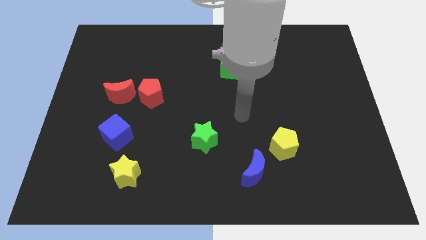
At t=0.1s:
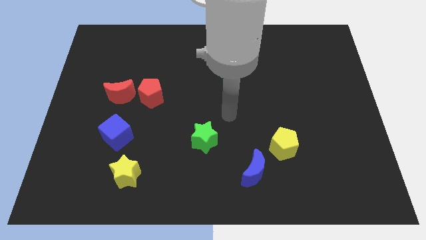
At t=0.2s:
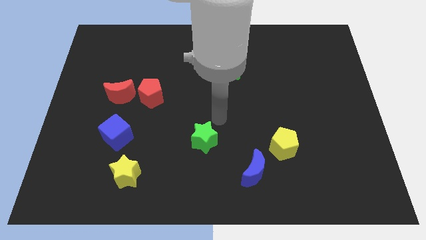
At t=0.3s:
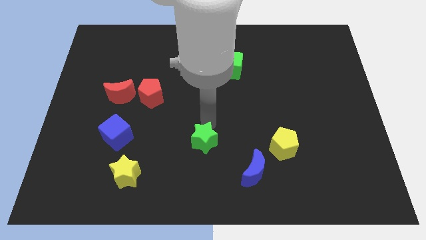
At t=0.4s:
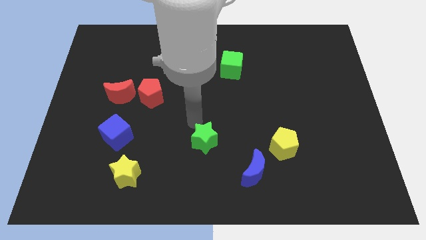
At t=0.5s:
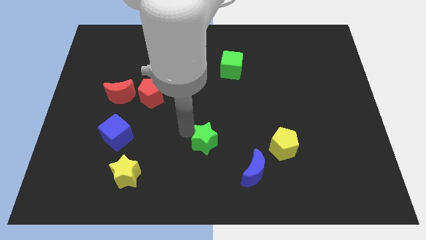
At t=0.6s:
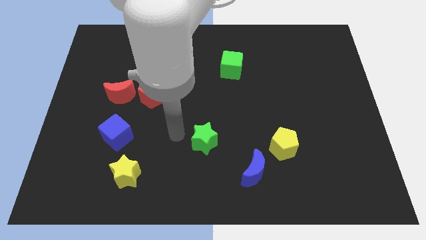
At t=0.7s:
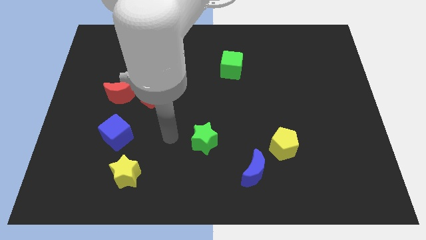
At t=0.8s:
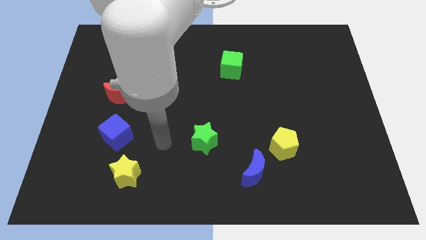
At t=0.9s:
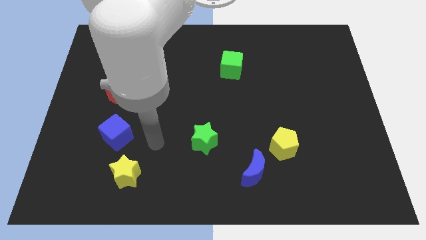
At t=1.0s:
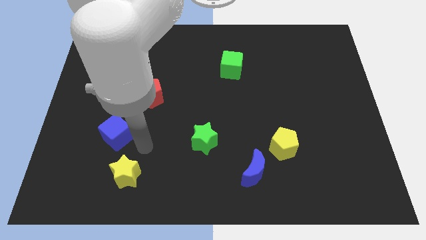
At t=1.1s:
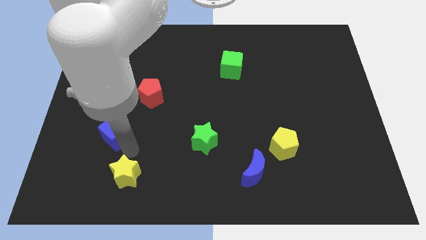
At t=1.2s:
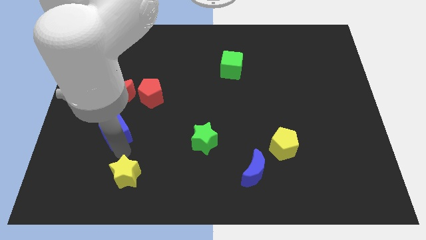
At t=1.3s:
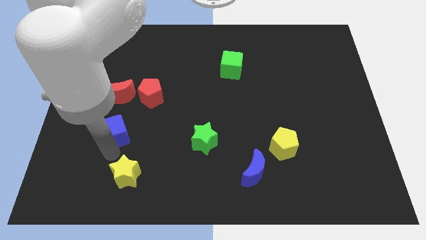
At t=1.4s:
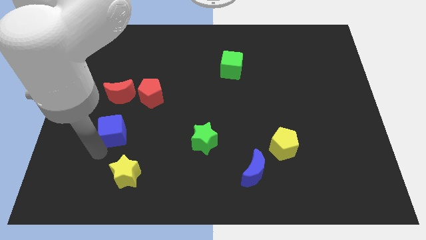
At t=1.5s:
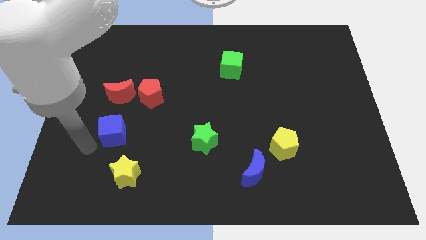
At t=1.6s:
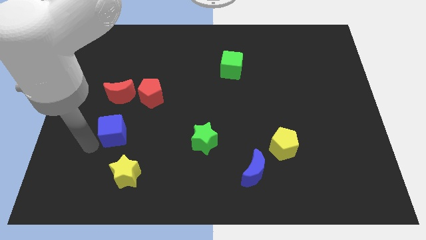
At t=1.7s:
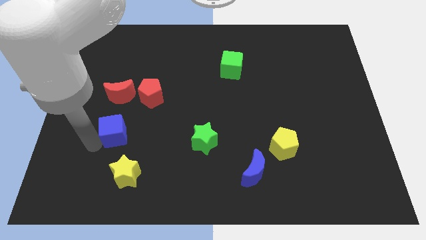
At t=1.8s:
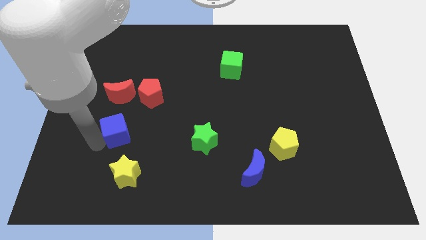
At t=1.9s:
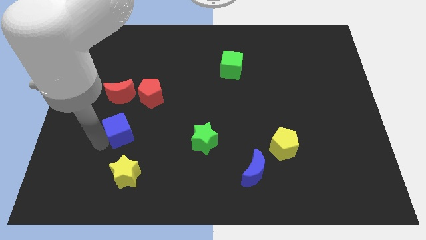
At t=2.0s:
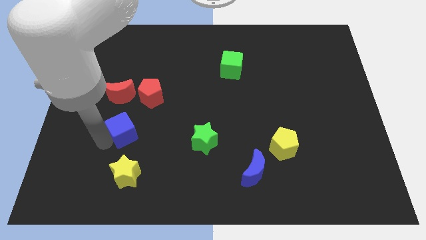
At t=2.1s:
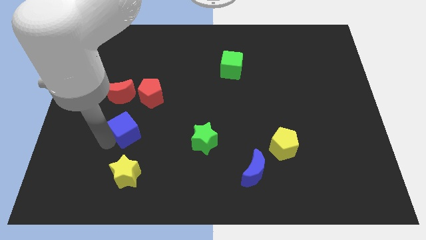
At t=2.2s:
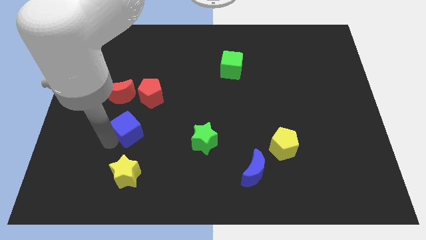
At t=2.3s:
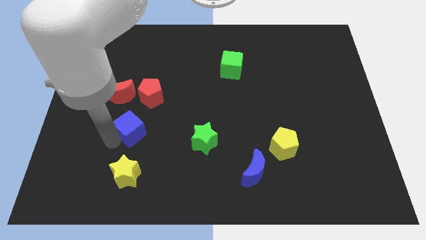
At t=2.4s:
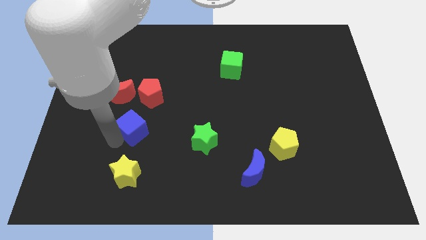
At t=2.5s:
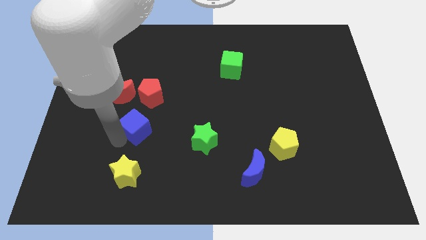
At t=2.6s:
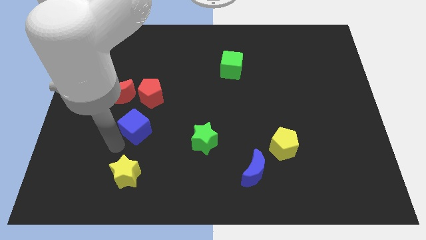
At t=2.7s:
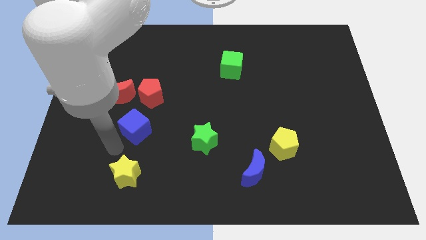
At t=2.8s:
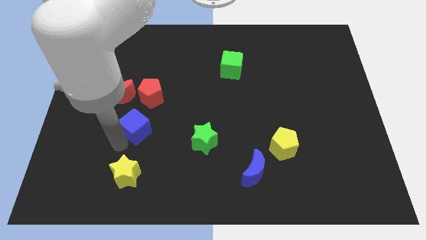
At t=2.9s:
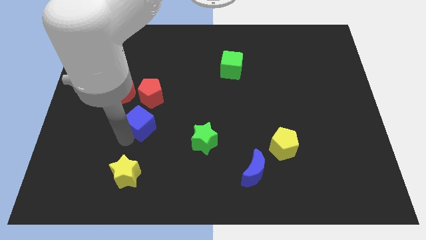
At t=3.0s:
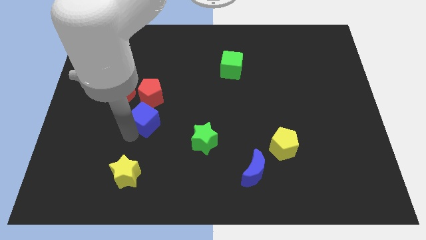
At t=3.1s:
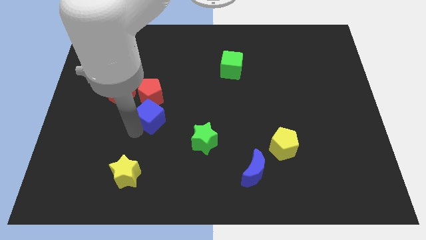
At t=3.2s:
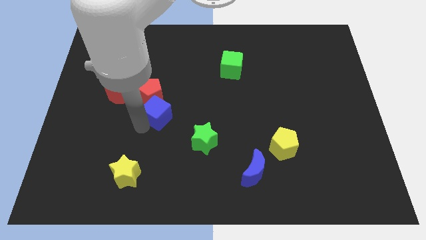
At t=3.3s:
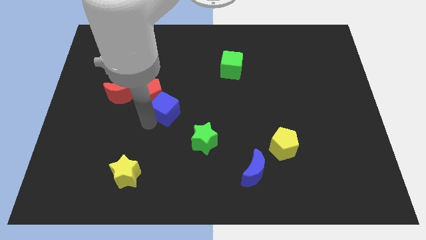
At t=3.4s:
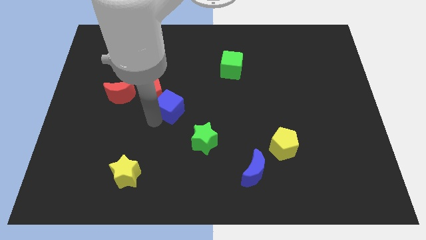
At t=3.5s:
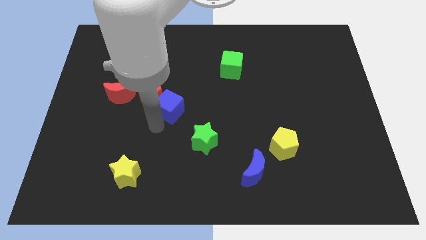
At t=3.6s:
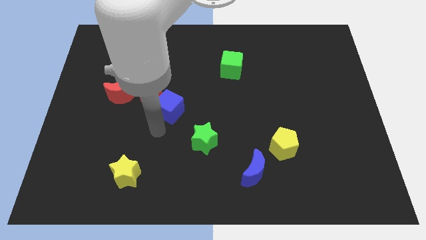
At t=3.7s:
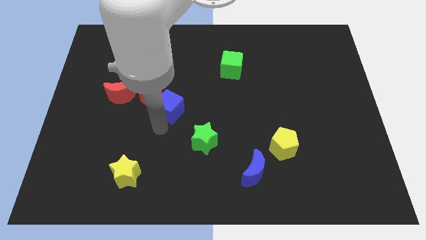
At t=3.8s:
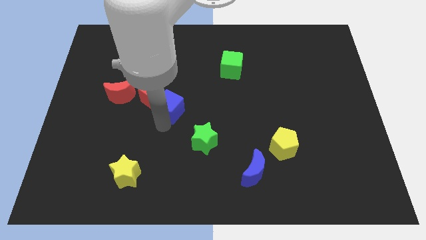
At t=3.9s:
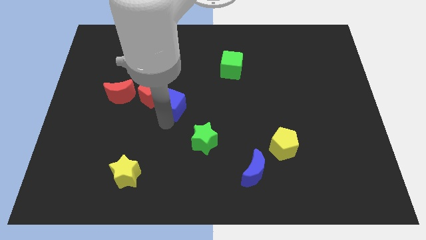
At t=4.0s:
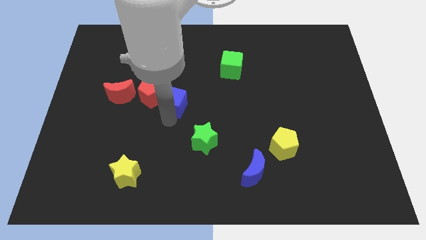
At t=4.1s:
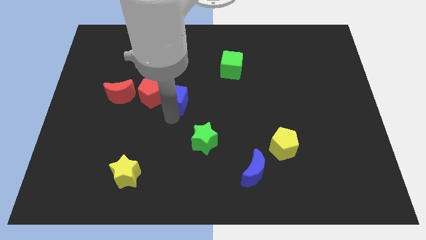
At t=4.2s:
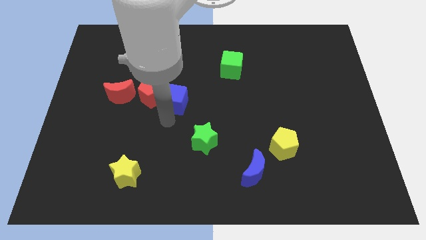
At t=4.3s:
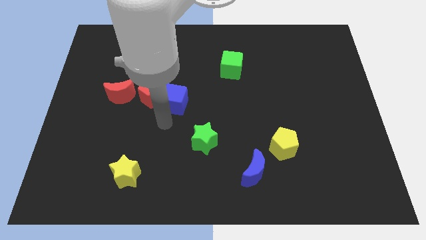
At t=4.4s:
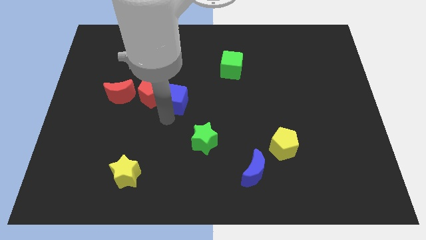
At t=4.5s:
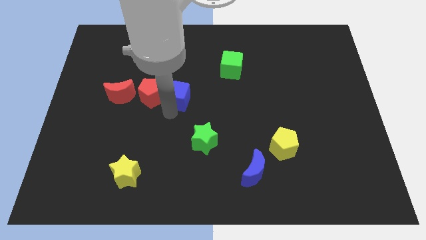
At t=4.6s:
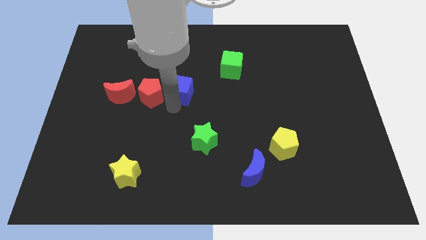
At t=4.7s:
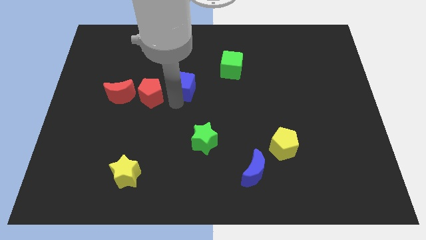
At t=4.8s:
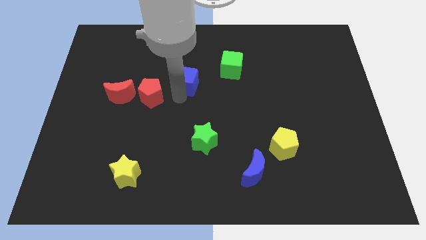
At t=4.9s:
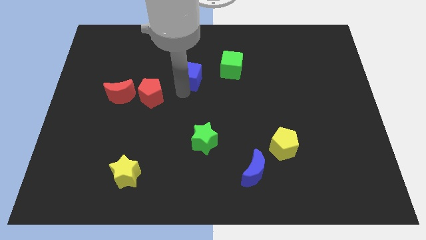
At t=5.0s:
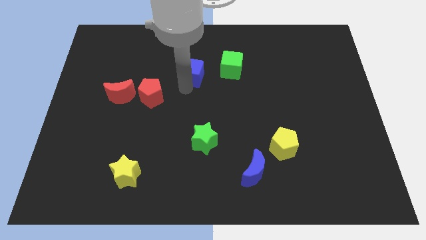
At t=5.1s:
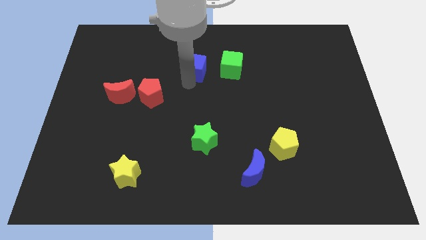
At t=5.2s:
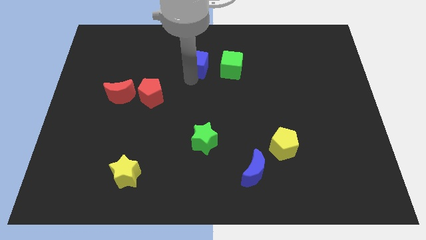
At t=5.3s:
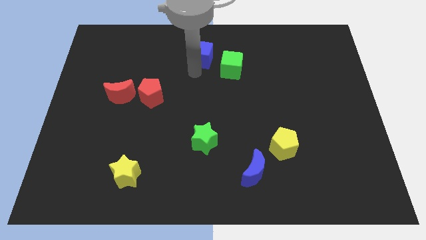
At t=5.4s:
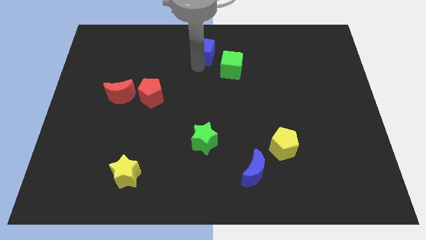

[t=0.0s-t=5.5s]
push the blue cube to the towards your base

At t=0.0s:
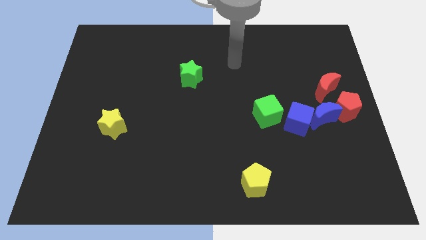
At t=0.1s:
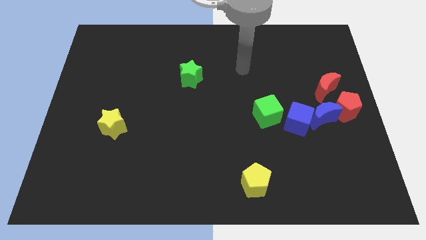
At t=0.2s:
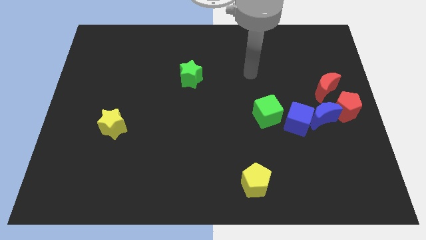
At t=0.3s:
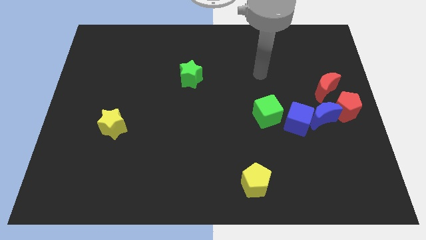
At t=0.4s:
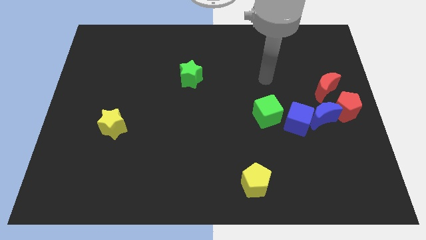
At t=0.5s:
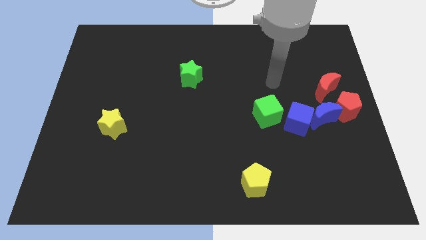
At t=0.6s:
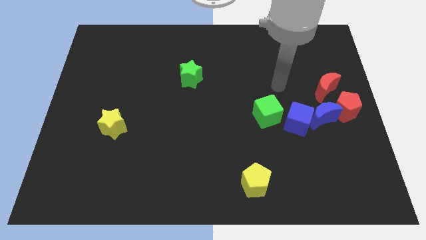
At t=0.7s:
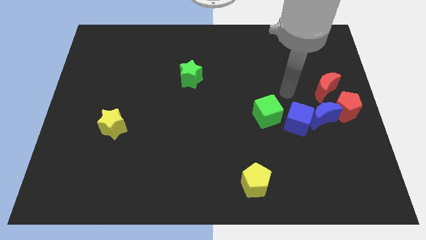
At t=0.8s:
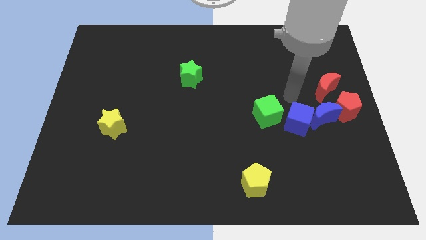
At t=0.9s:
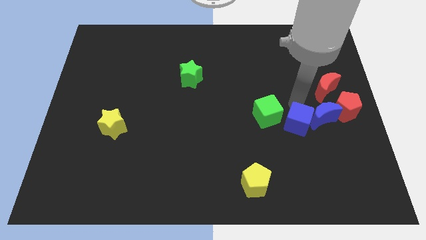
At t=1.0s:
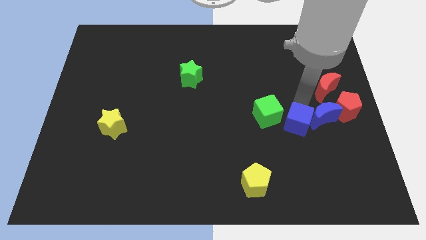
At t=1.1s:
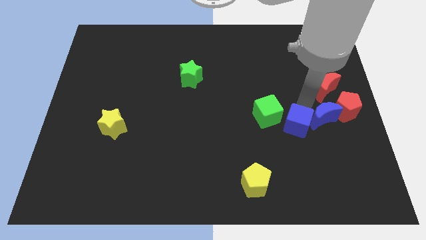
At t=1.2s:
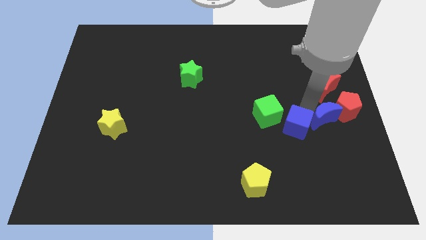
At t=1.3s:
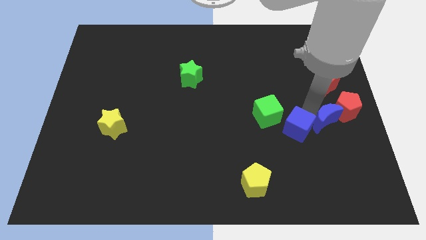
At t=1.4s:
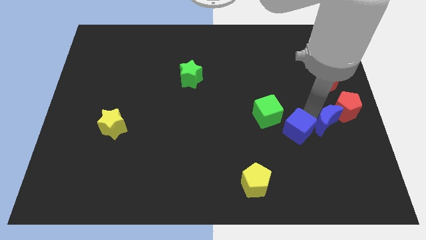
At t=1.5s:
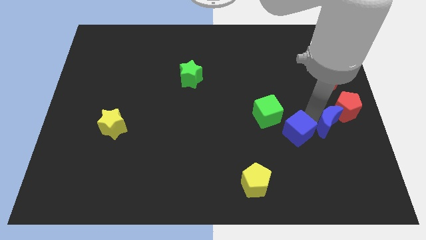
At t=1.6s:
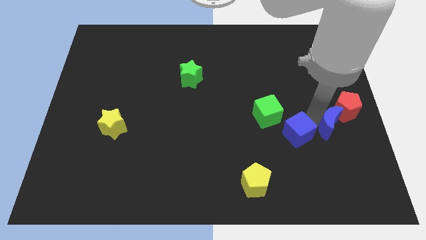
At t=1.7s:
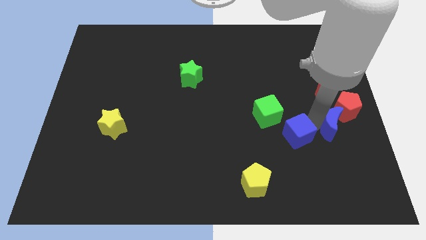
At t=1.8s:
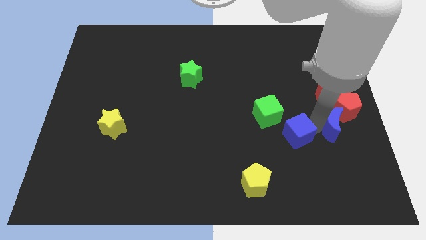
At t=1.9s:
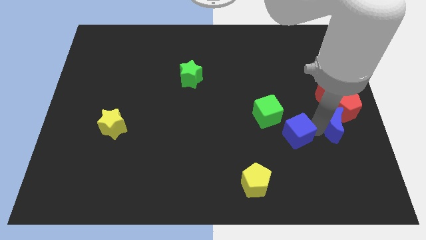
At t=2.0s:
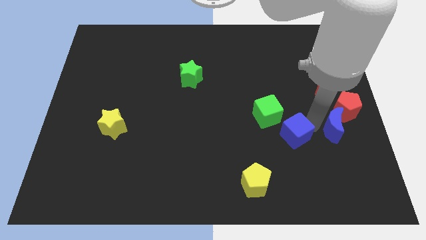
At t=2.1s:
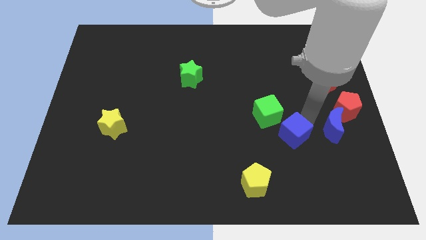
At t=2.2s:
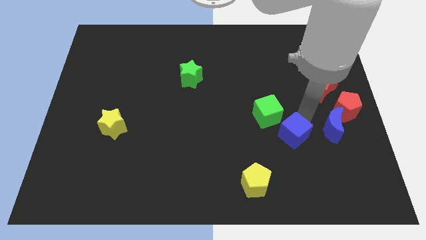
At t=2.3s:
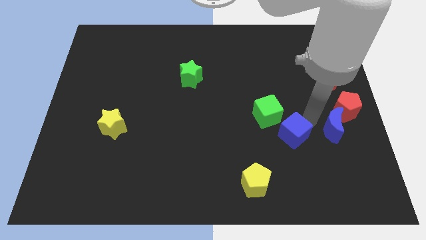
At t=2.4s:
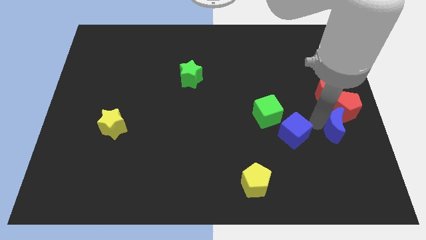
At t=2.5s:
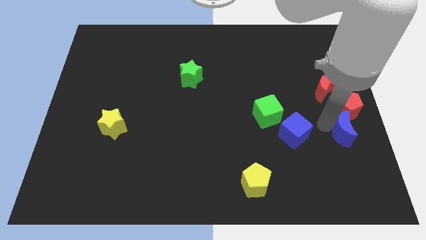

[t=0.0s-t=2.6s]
slide the blue moon to the center right
